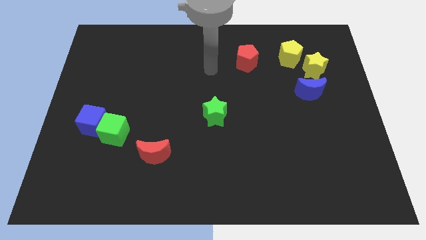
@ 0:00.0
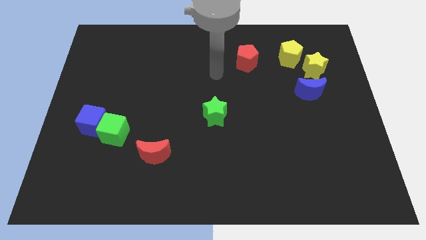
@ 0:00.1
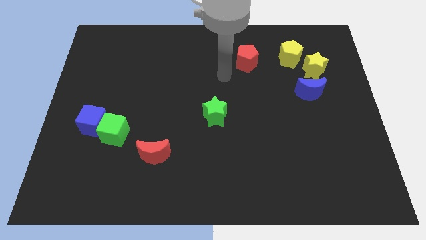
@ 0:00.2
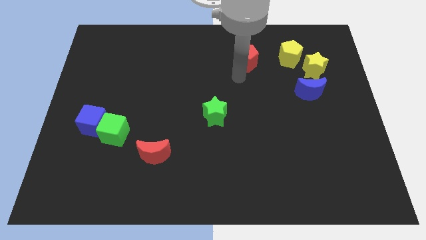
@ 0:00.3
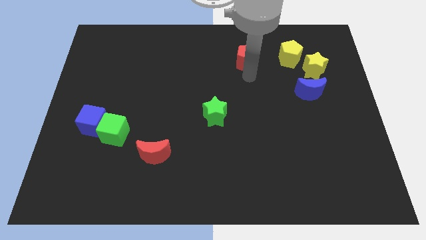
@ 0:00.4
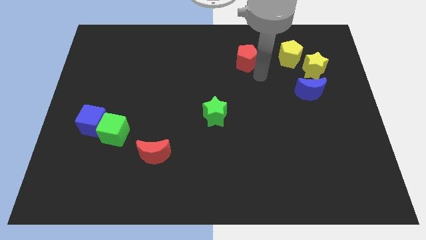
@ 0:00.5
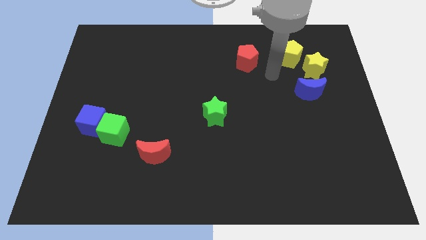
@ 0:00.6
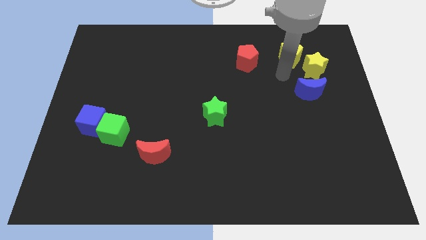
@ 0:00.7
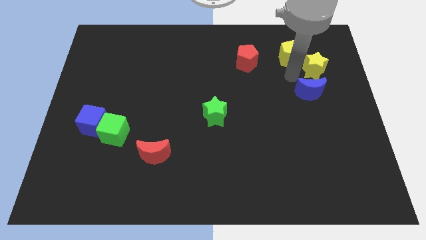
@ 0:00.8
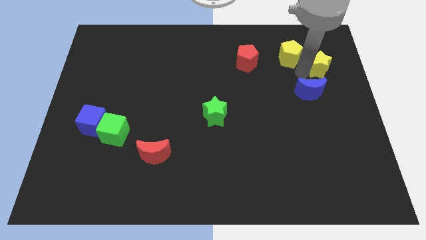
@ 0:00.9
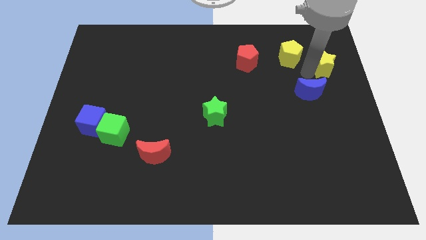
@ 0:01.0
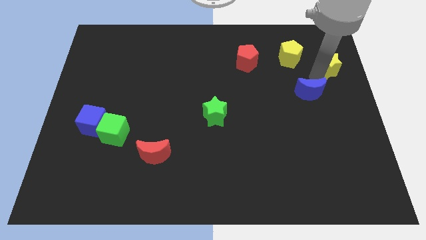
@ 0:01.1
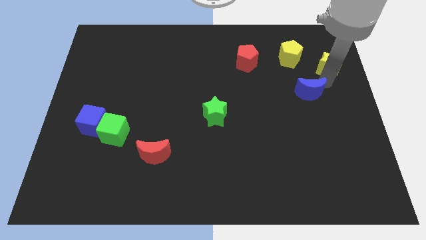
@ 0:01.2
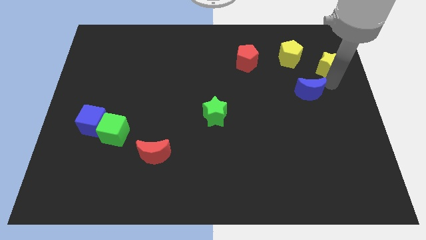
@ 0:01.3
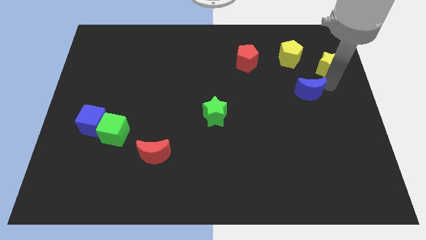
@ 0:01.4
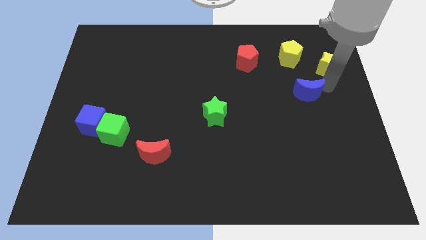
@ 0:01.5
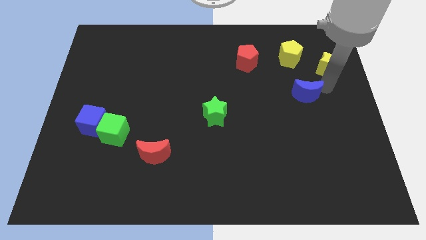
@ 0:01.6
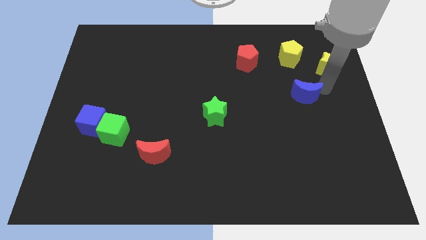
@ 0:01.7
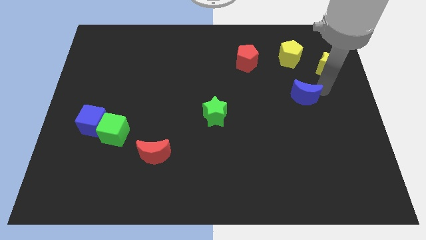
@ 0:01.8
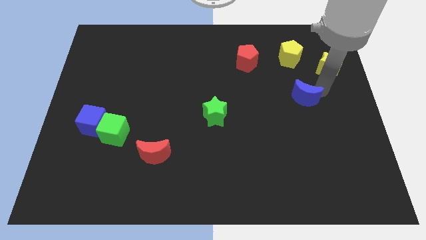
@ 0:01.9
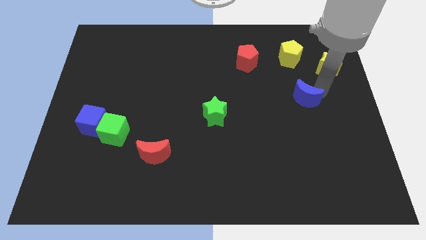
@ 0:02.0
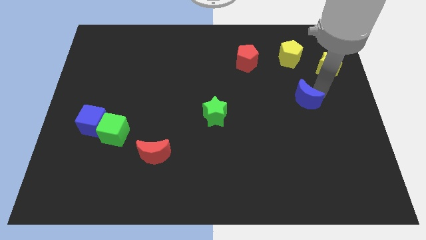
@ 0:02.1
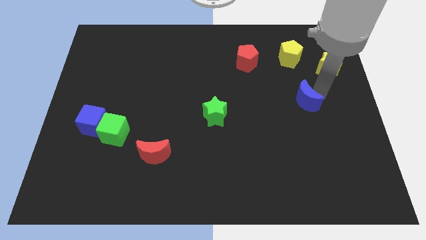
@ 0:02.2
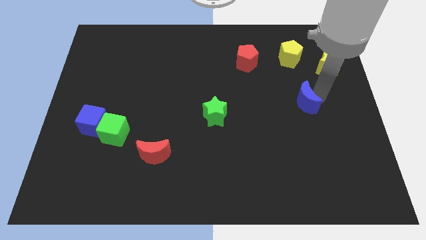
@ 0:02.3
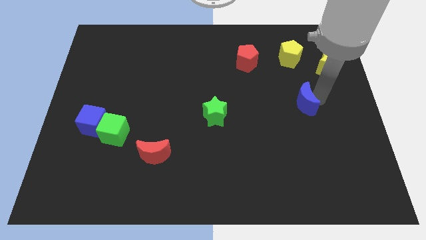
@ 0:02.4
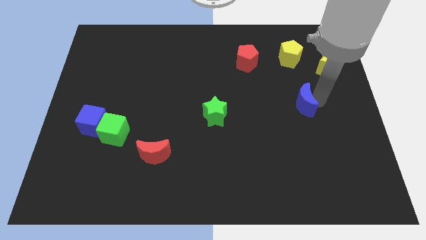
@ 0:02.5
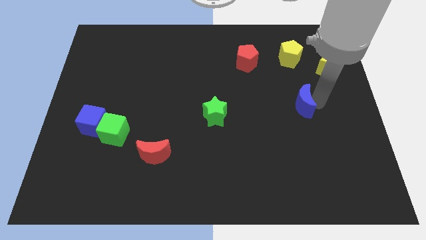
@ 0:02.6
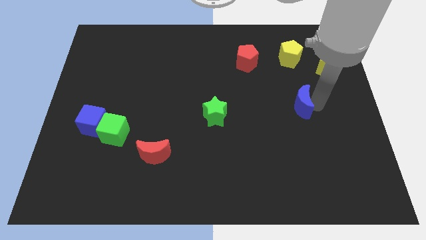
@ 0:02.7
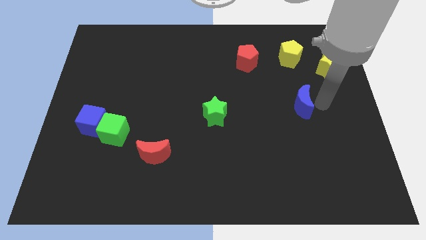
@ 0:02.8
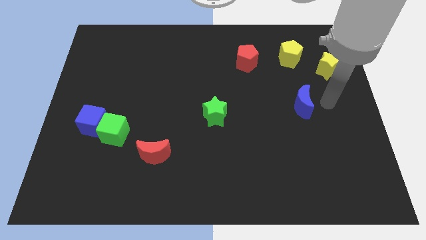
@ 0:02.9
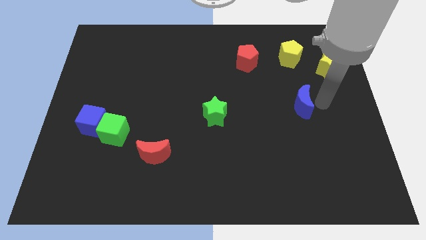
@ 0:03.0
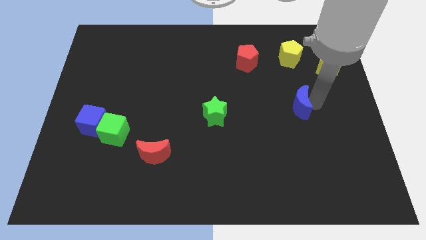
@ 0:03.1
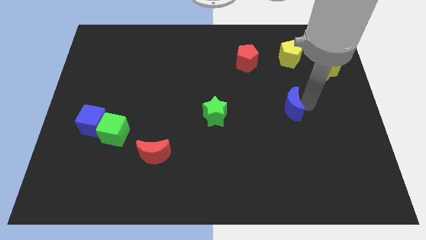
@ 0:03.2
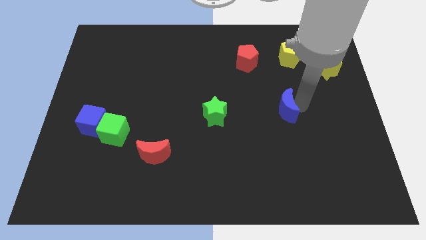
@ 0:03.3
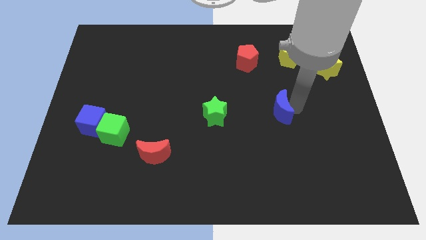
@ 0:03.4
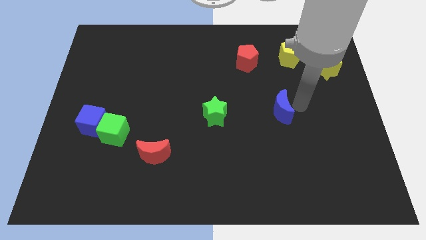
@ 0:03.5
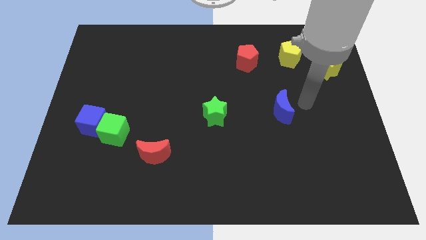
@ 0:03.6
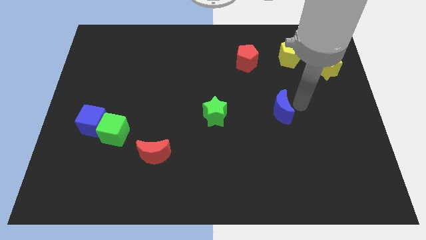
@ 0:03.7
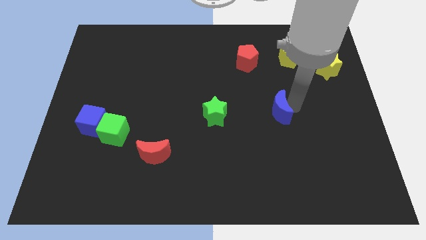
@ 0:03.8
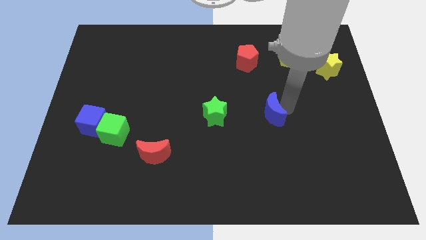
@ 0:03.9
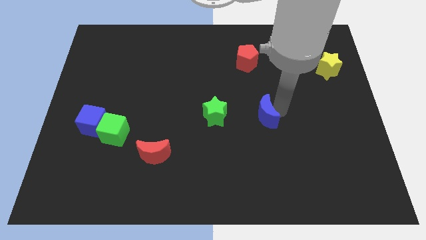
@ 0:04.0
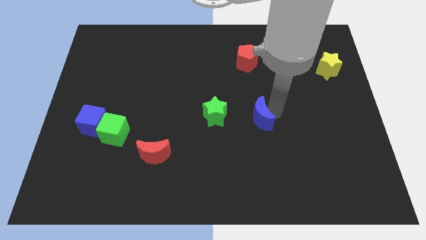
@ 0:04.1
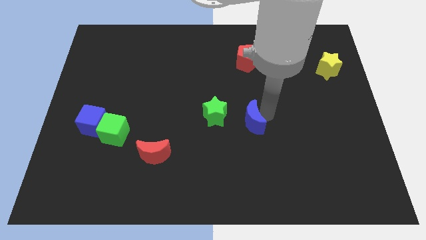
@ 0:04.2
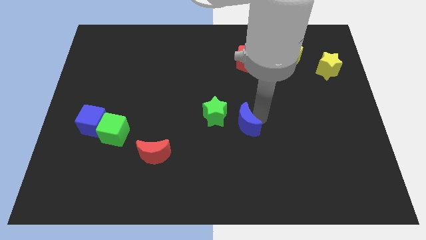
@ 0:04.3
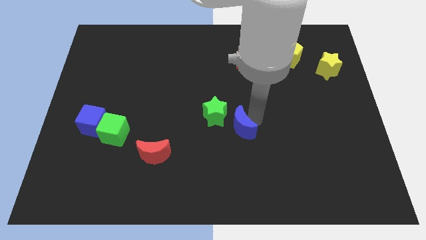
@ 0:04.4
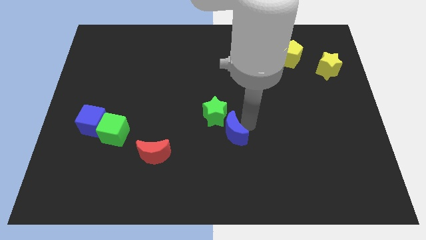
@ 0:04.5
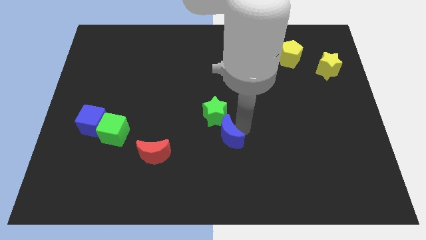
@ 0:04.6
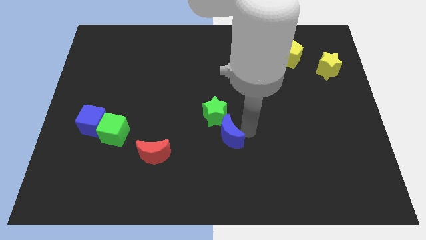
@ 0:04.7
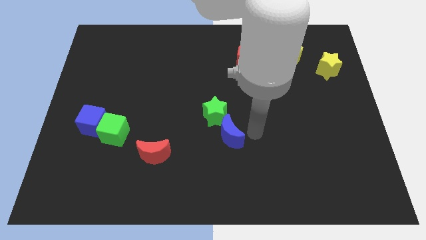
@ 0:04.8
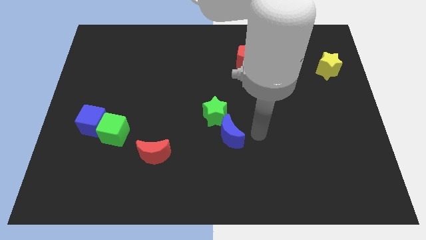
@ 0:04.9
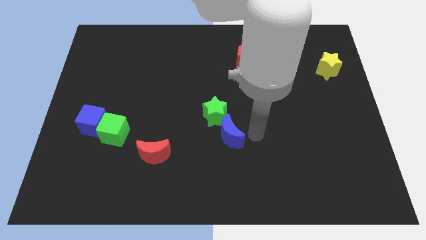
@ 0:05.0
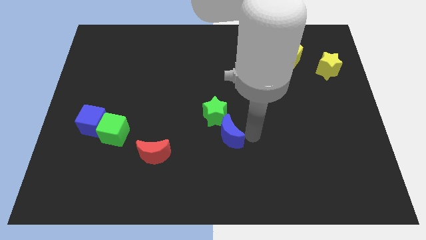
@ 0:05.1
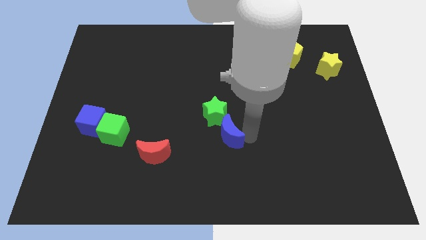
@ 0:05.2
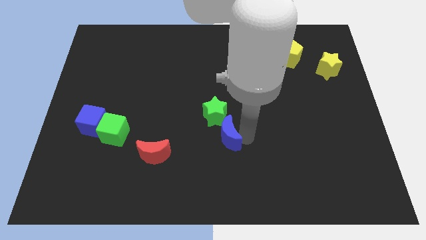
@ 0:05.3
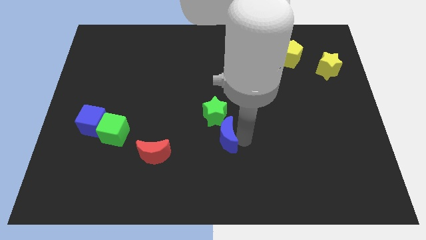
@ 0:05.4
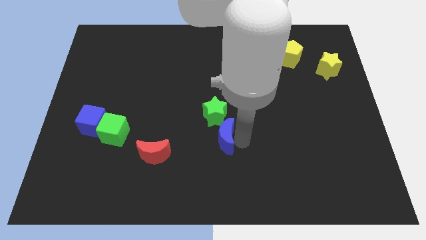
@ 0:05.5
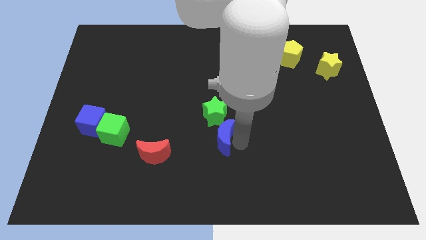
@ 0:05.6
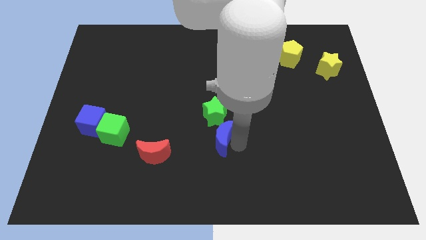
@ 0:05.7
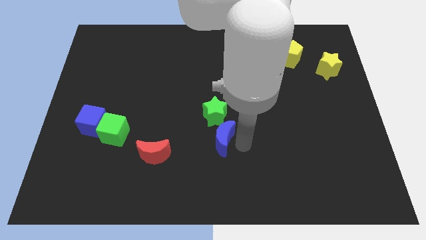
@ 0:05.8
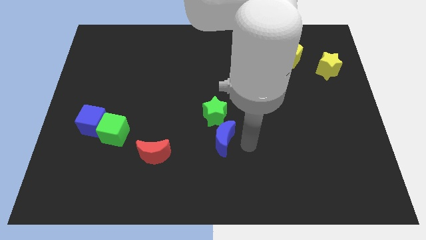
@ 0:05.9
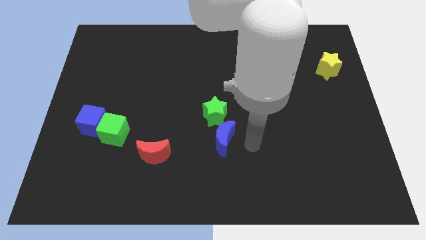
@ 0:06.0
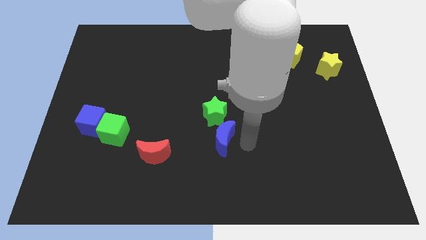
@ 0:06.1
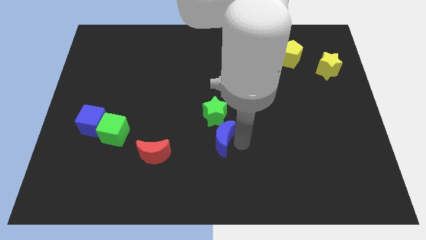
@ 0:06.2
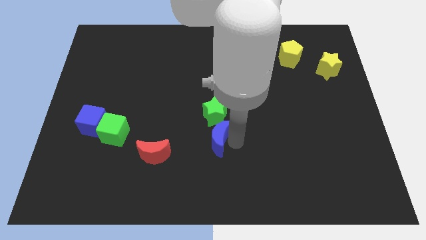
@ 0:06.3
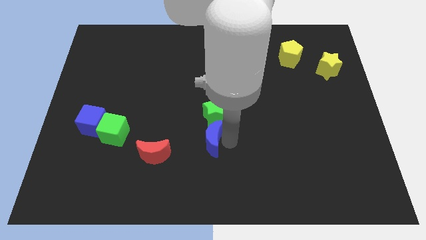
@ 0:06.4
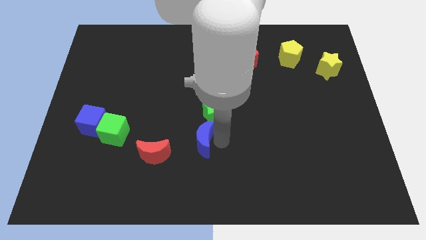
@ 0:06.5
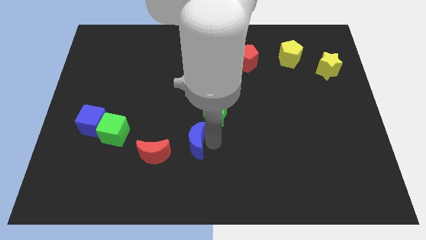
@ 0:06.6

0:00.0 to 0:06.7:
move the blue moon diagonally up and to the right of the red moon

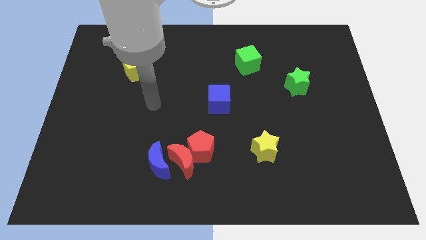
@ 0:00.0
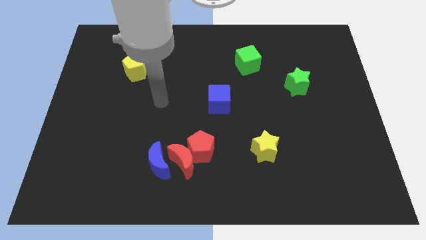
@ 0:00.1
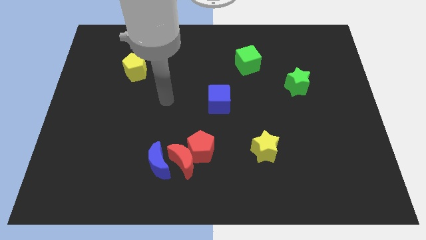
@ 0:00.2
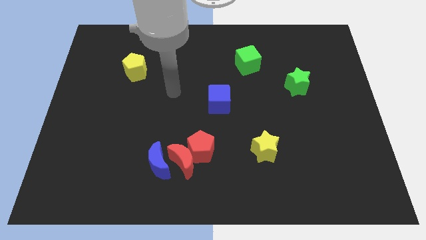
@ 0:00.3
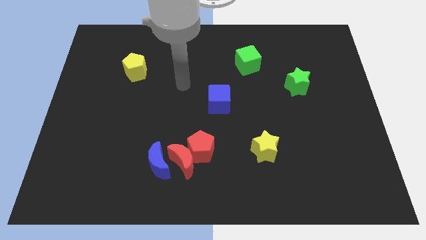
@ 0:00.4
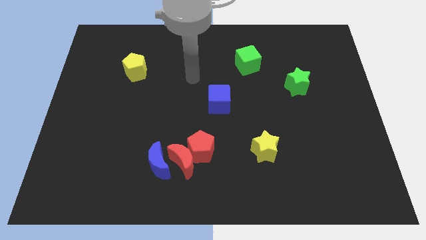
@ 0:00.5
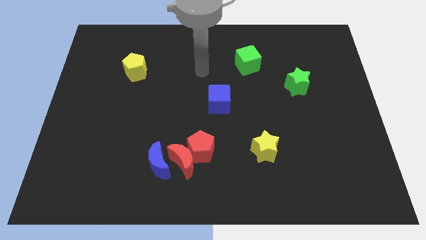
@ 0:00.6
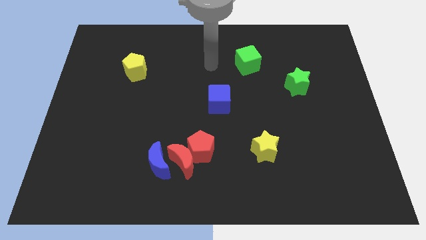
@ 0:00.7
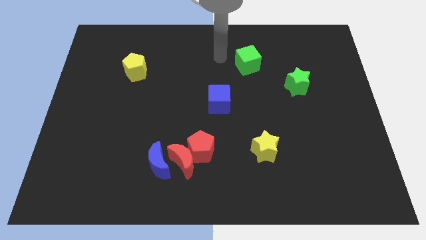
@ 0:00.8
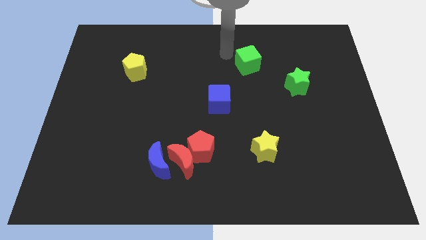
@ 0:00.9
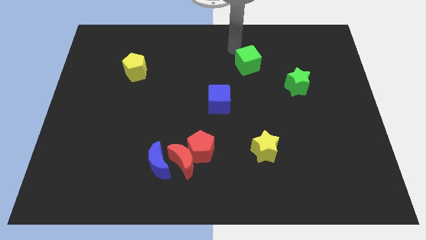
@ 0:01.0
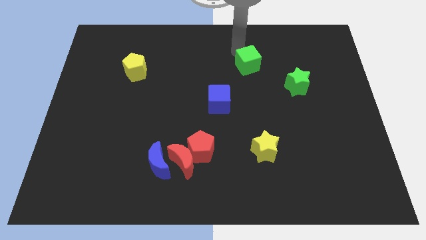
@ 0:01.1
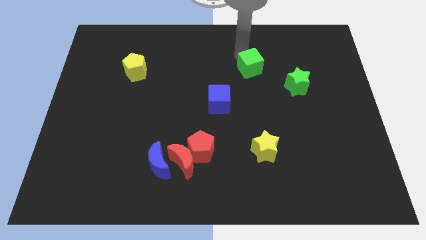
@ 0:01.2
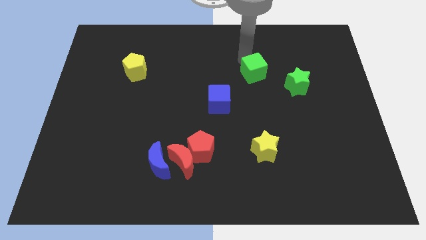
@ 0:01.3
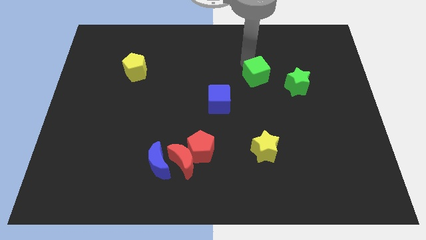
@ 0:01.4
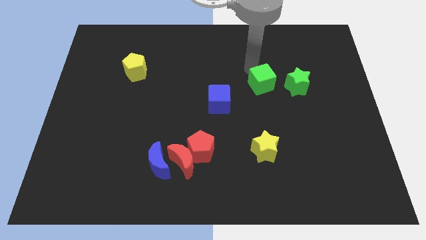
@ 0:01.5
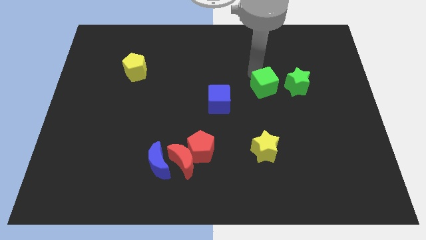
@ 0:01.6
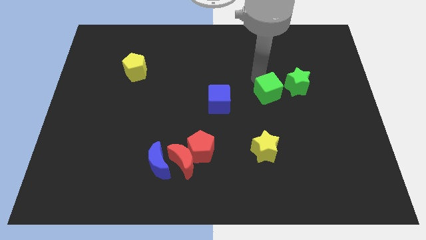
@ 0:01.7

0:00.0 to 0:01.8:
move the green cube to the bottom left side of the green star
